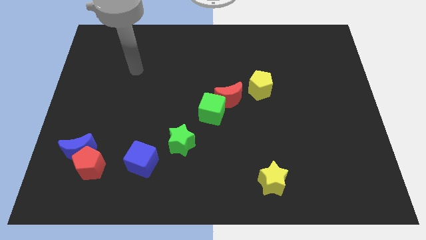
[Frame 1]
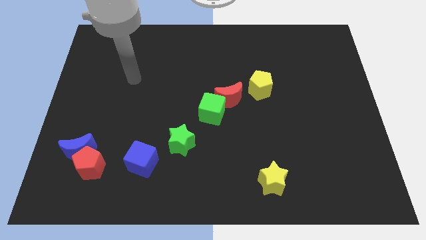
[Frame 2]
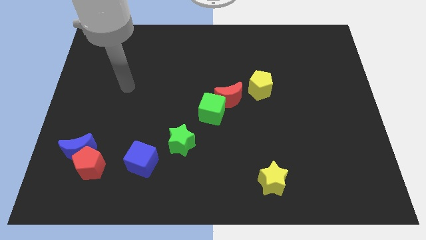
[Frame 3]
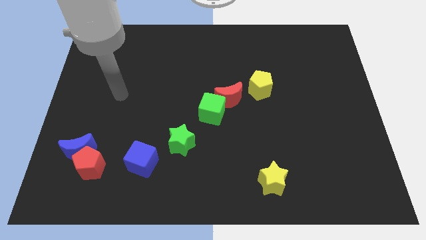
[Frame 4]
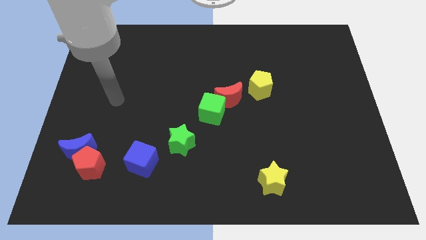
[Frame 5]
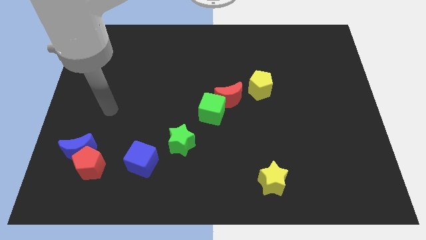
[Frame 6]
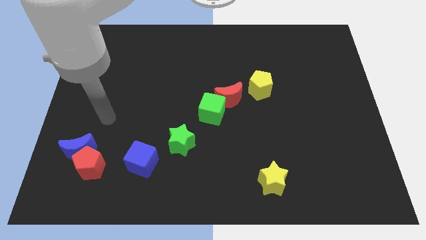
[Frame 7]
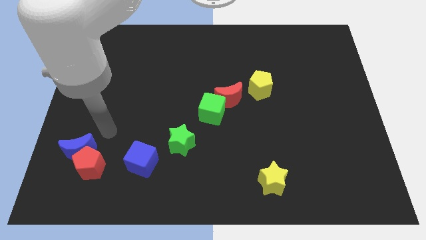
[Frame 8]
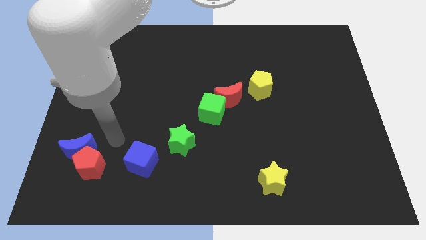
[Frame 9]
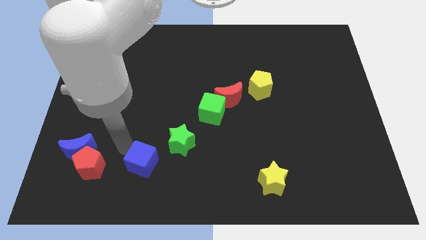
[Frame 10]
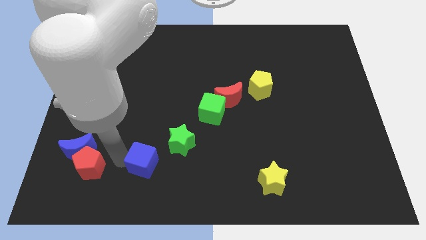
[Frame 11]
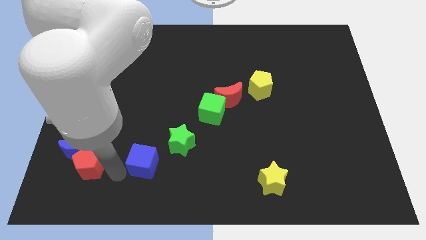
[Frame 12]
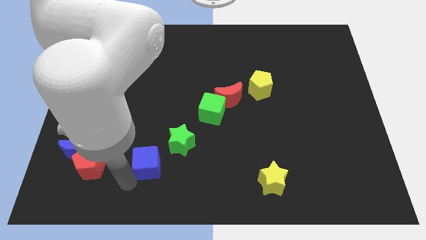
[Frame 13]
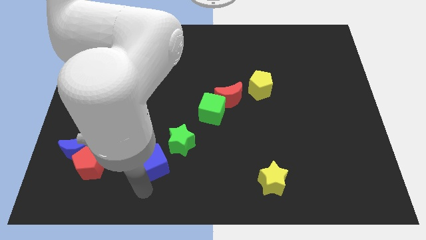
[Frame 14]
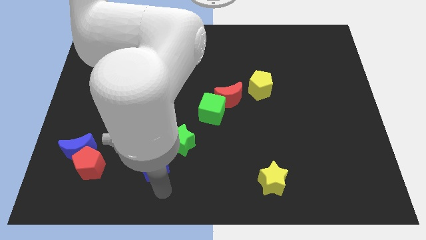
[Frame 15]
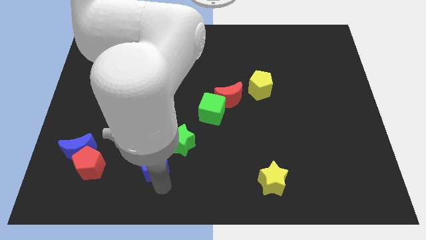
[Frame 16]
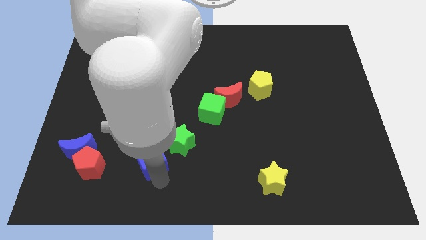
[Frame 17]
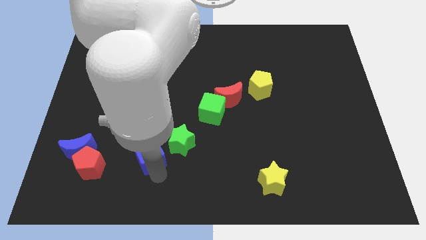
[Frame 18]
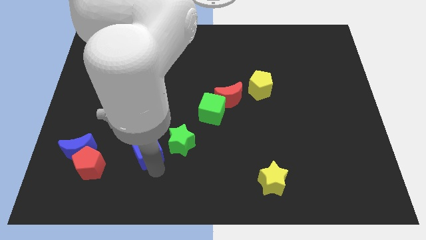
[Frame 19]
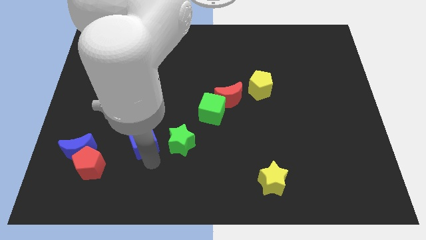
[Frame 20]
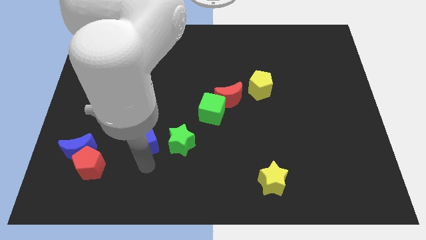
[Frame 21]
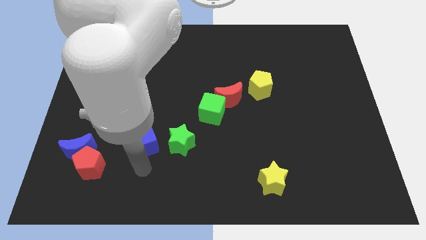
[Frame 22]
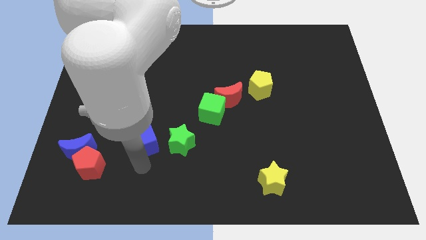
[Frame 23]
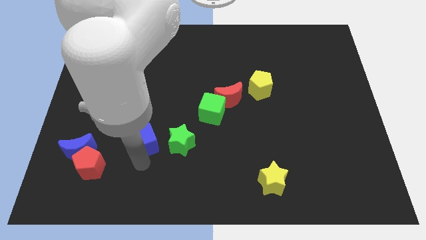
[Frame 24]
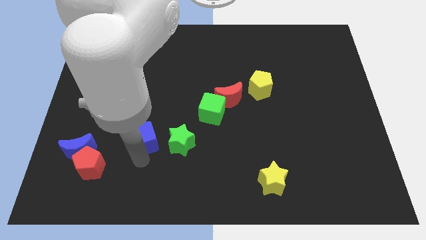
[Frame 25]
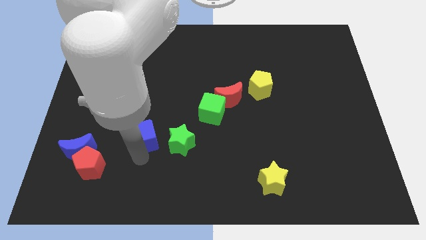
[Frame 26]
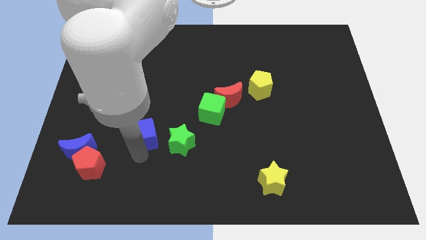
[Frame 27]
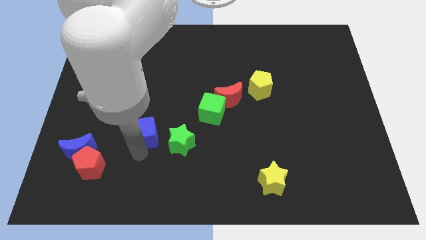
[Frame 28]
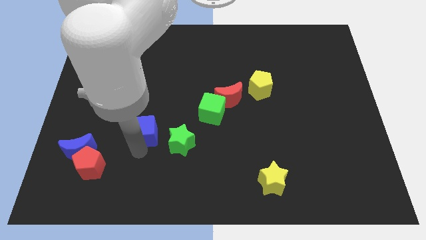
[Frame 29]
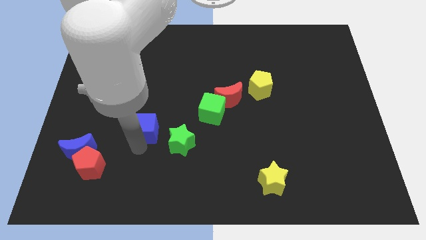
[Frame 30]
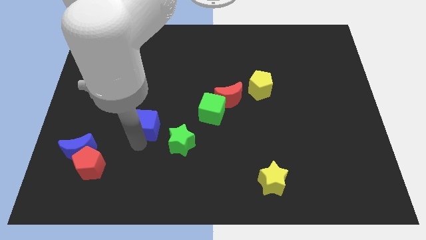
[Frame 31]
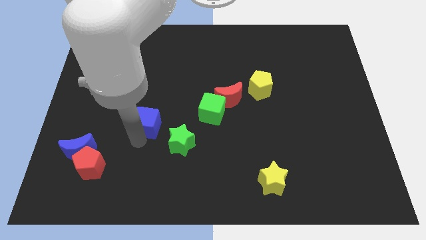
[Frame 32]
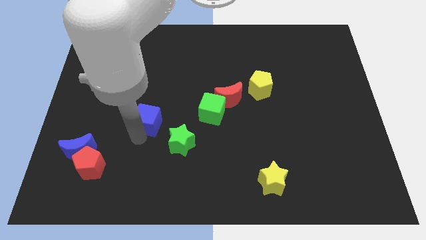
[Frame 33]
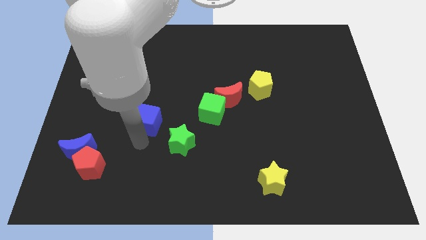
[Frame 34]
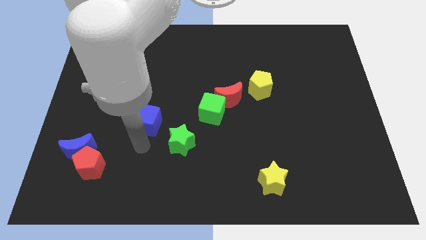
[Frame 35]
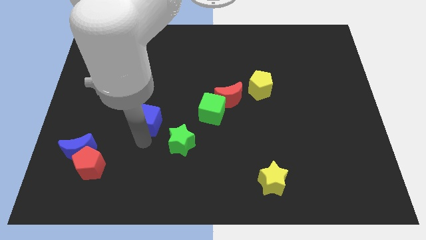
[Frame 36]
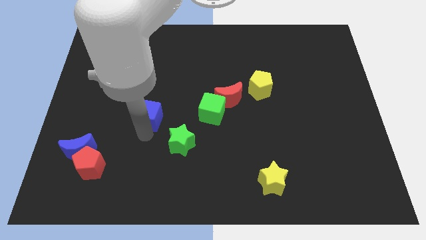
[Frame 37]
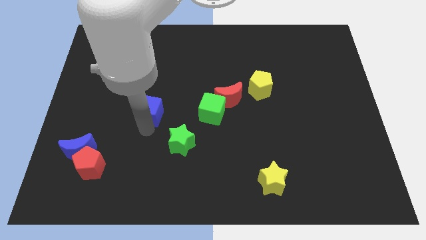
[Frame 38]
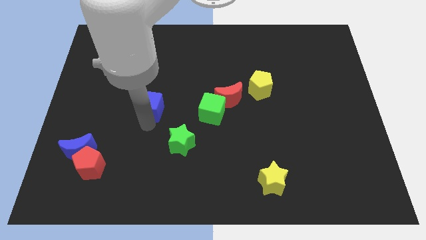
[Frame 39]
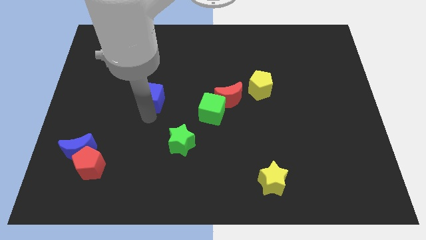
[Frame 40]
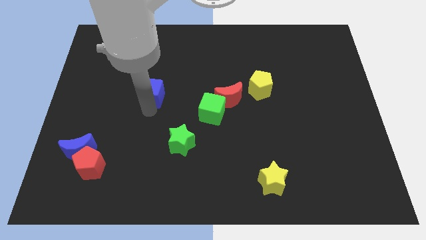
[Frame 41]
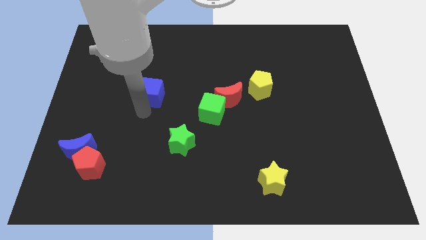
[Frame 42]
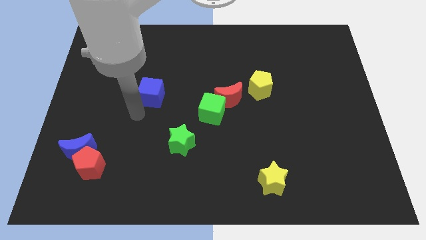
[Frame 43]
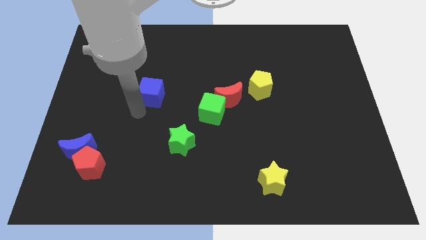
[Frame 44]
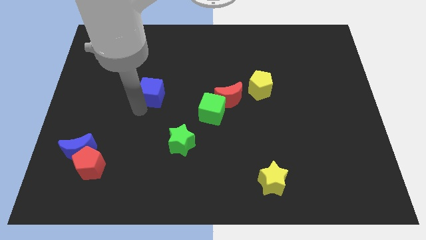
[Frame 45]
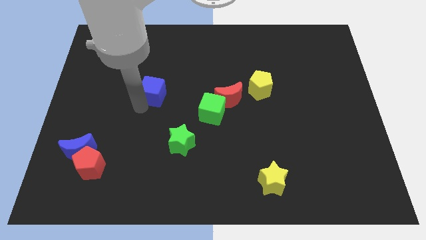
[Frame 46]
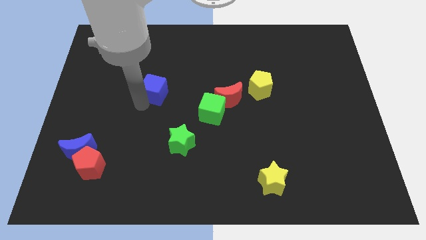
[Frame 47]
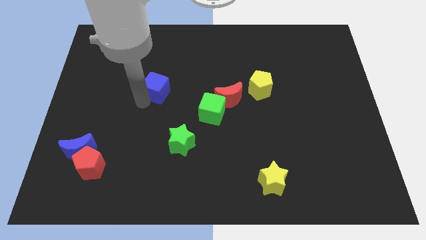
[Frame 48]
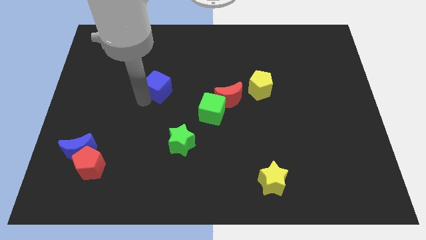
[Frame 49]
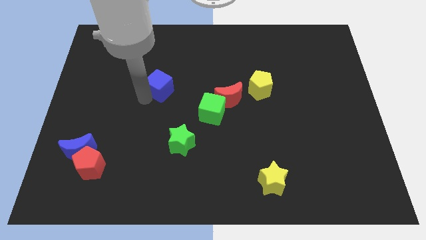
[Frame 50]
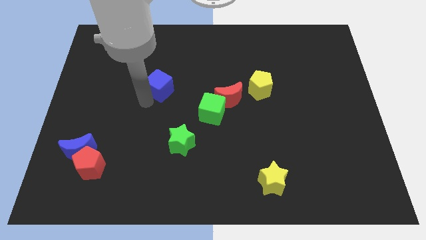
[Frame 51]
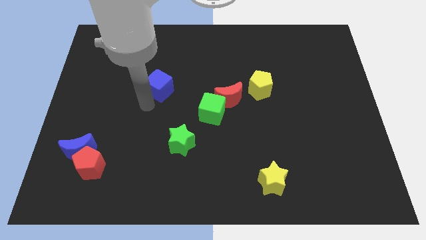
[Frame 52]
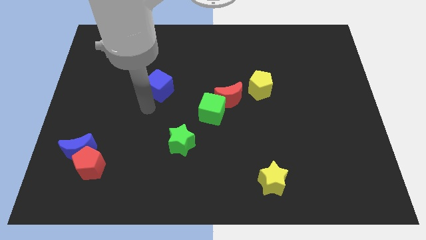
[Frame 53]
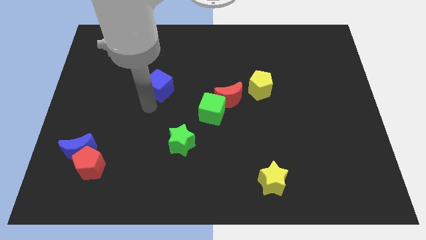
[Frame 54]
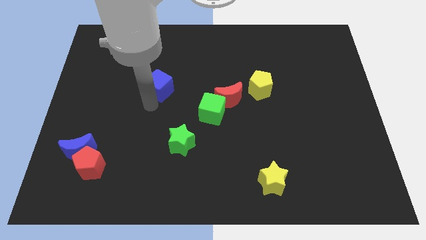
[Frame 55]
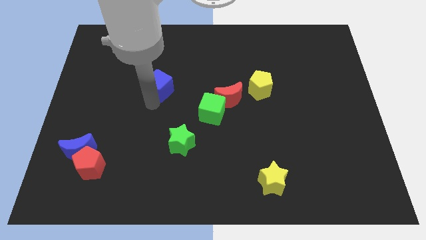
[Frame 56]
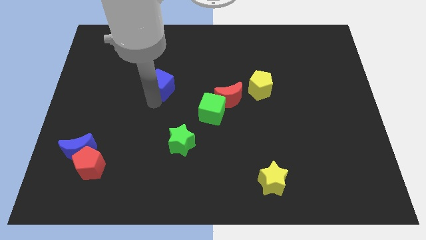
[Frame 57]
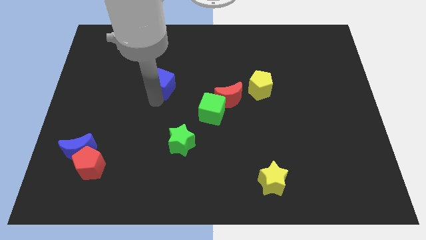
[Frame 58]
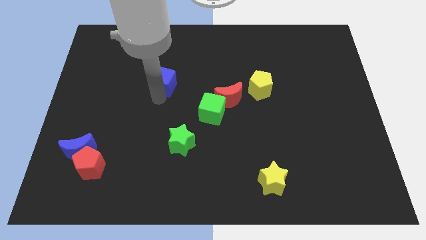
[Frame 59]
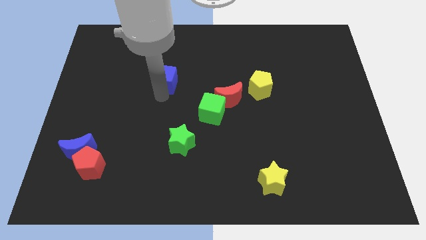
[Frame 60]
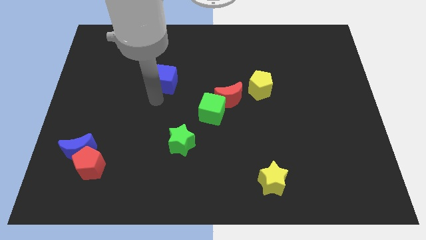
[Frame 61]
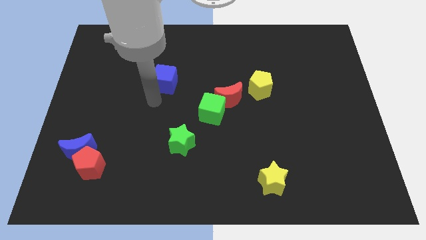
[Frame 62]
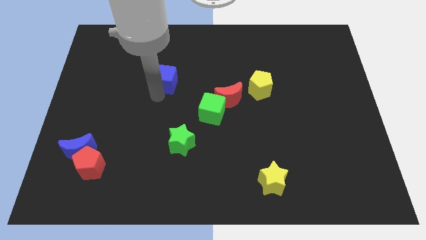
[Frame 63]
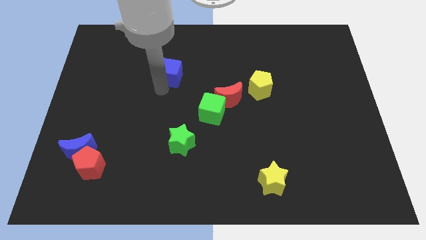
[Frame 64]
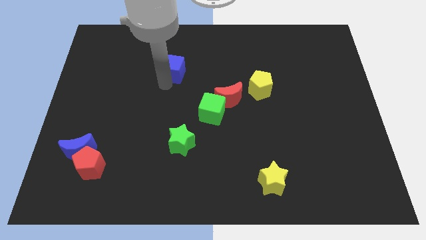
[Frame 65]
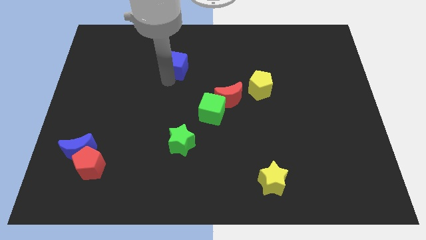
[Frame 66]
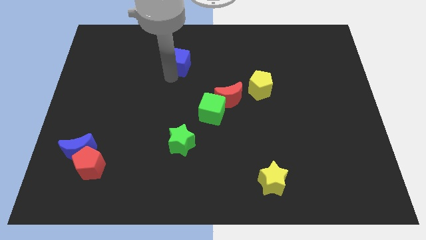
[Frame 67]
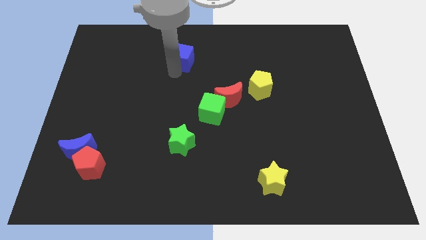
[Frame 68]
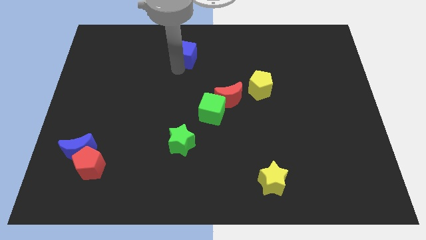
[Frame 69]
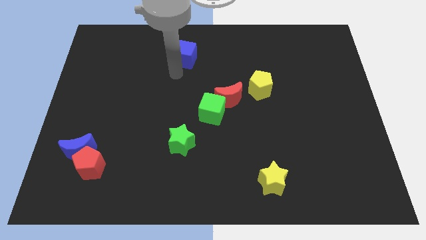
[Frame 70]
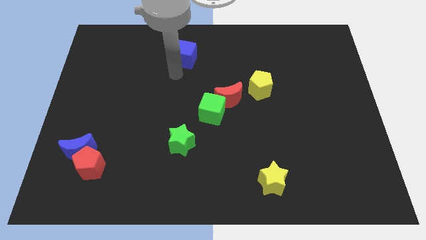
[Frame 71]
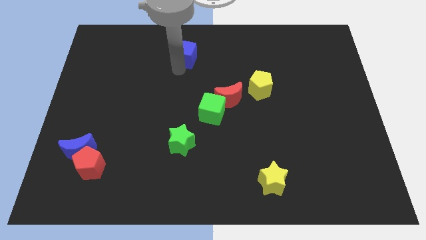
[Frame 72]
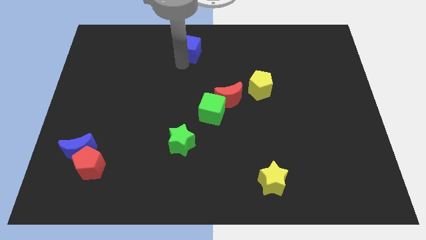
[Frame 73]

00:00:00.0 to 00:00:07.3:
move the blue cube to the top
